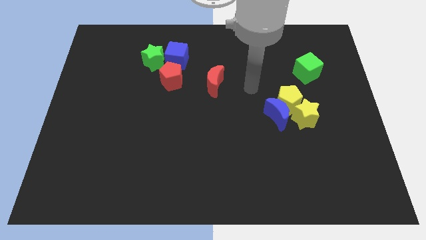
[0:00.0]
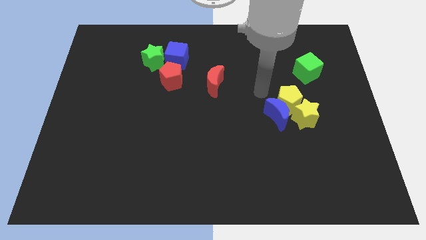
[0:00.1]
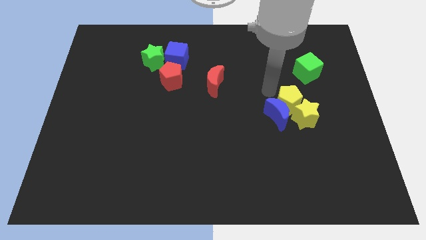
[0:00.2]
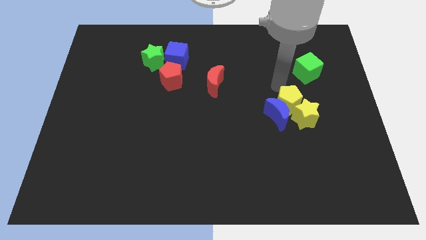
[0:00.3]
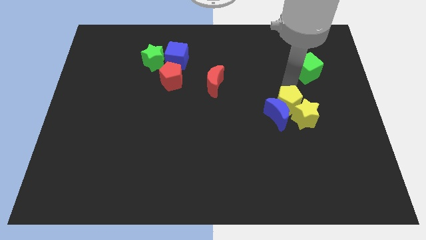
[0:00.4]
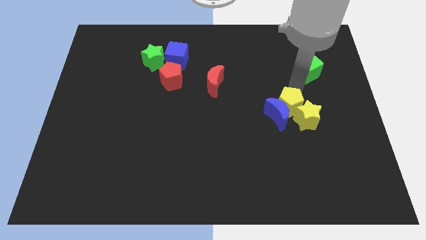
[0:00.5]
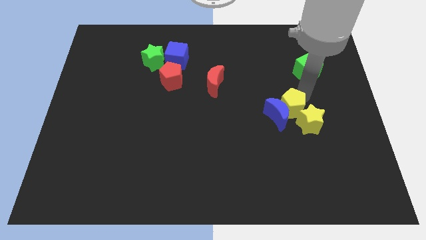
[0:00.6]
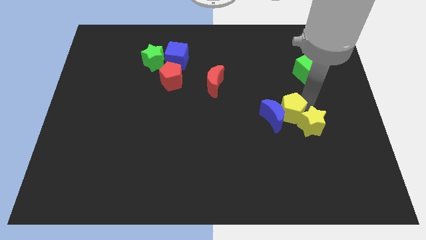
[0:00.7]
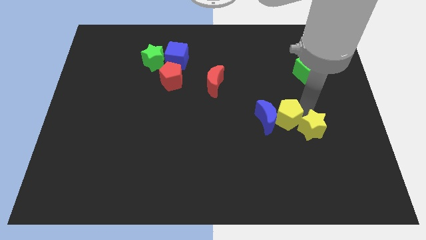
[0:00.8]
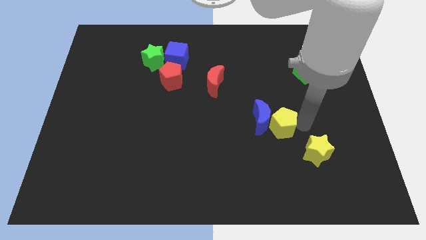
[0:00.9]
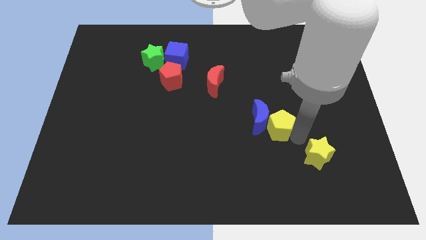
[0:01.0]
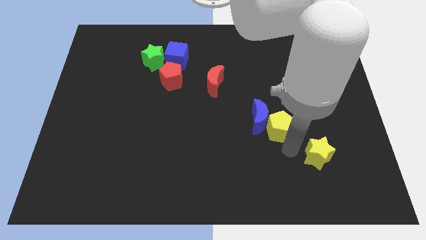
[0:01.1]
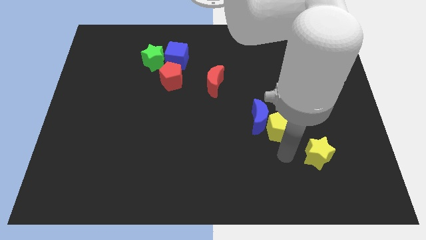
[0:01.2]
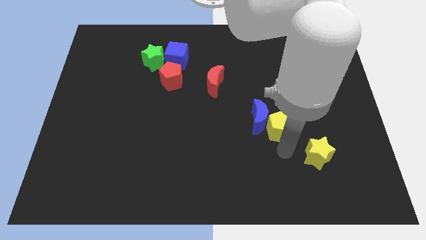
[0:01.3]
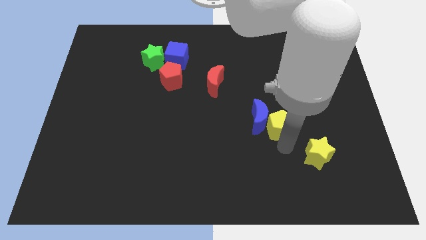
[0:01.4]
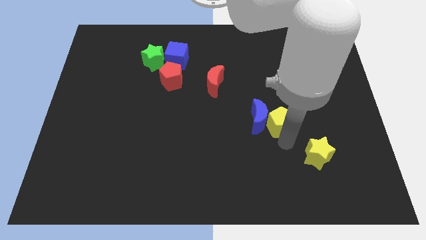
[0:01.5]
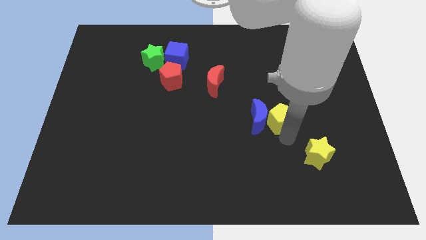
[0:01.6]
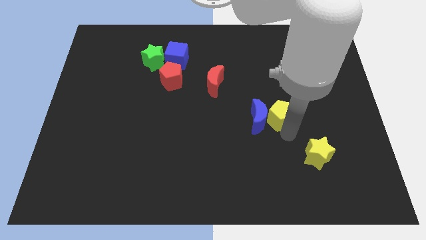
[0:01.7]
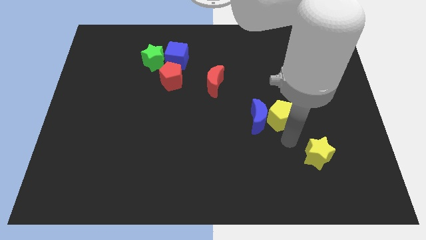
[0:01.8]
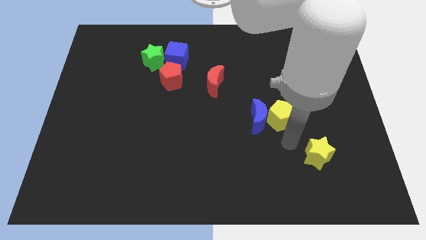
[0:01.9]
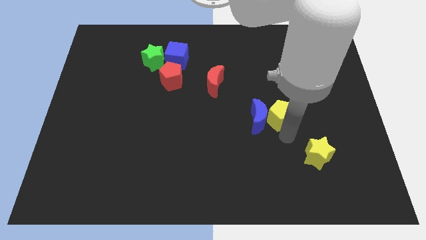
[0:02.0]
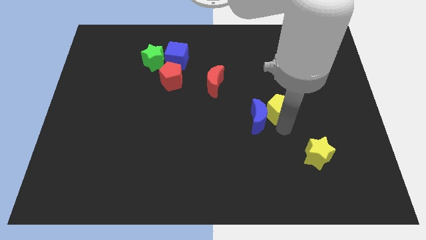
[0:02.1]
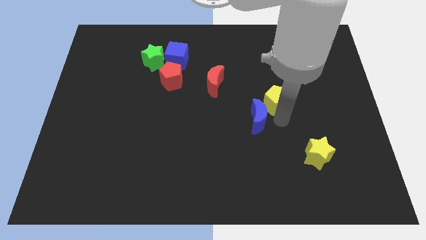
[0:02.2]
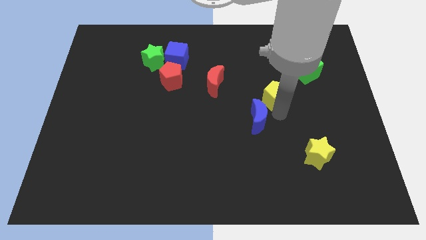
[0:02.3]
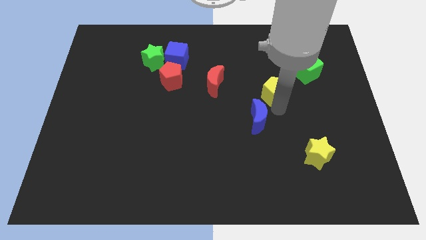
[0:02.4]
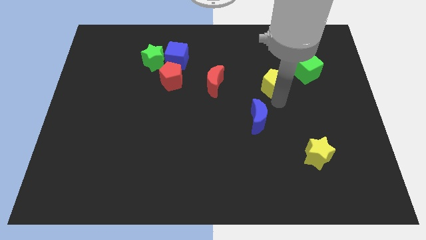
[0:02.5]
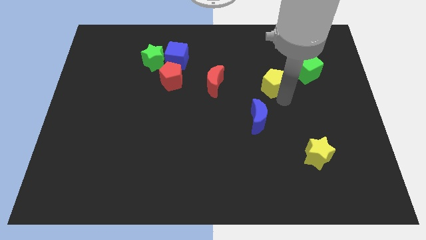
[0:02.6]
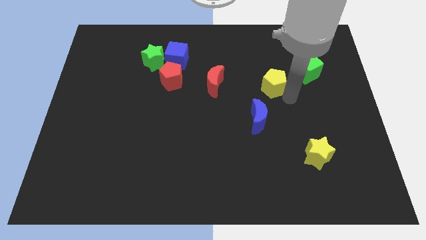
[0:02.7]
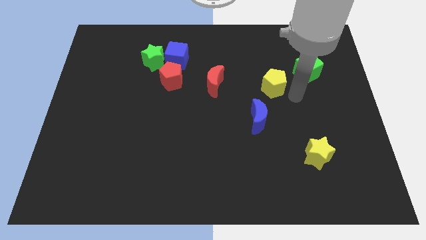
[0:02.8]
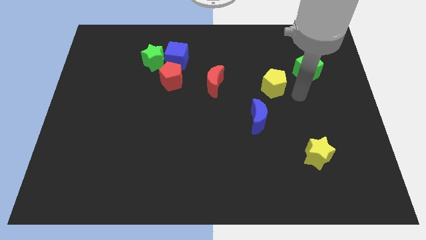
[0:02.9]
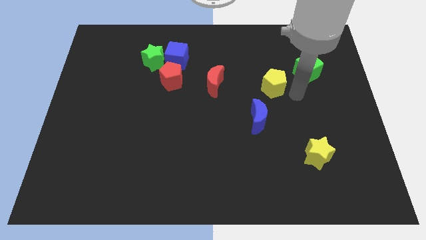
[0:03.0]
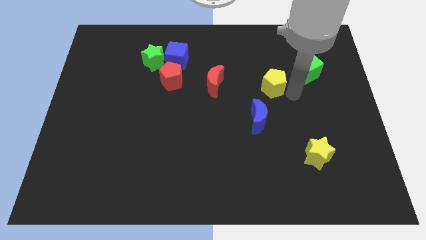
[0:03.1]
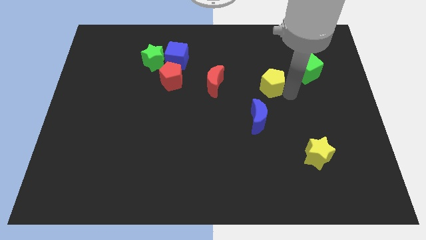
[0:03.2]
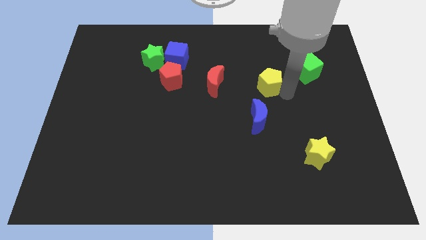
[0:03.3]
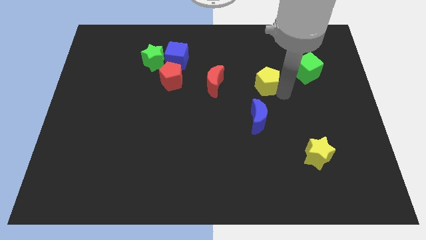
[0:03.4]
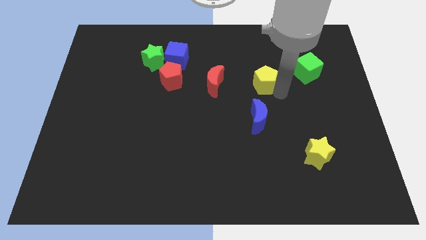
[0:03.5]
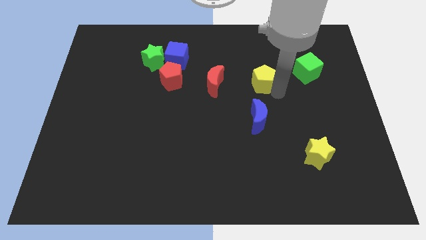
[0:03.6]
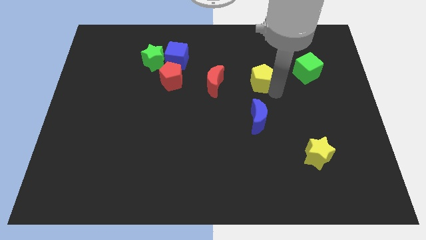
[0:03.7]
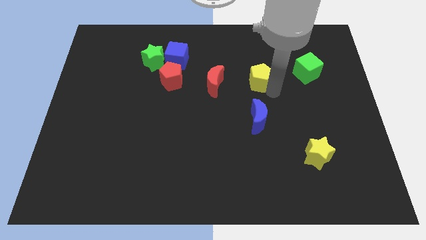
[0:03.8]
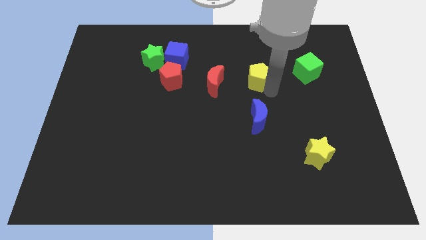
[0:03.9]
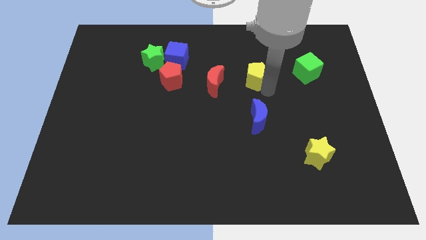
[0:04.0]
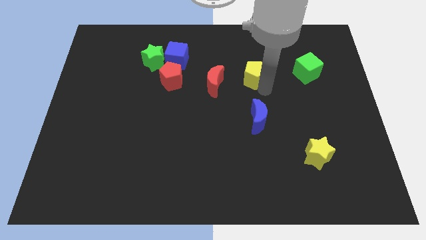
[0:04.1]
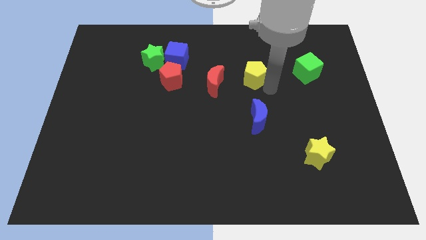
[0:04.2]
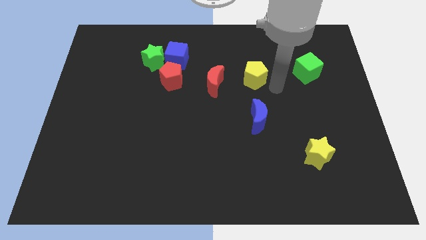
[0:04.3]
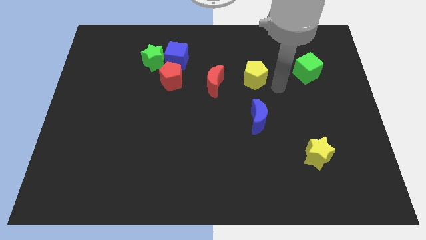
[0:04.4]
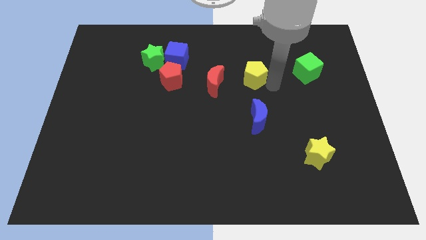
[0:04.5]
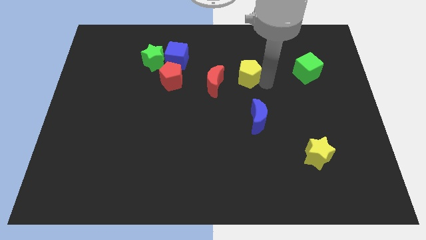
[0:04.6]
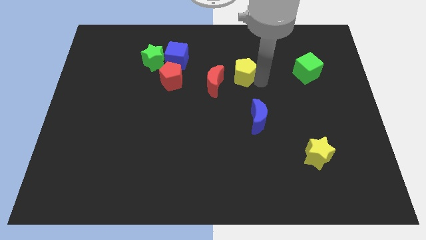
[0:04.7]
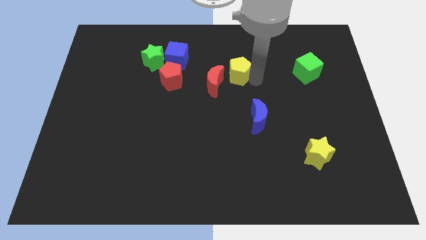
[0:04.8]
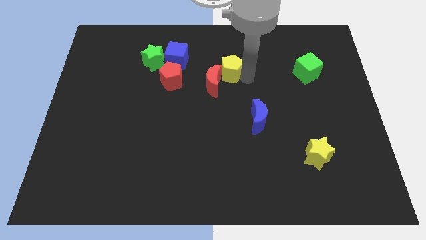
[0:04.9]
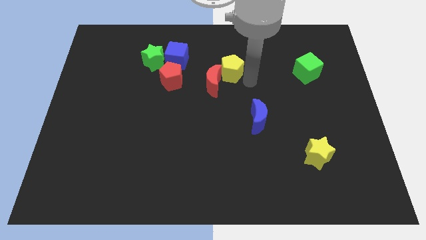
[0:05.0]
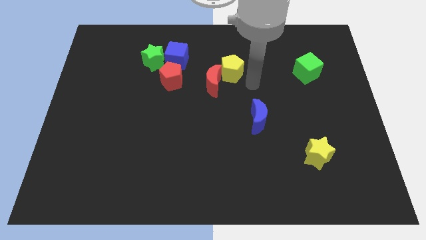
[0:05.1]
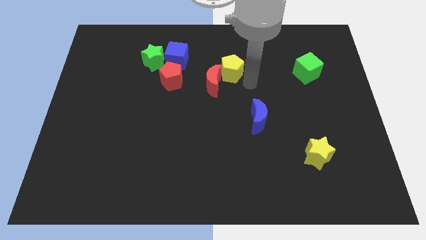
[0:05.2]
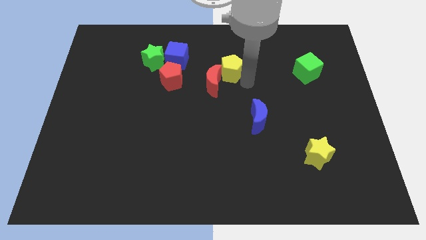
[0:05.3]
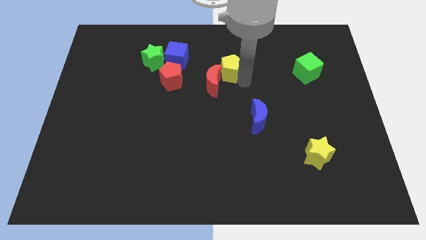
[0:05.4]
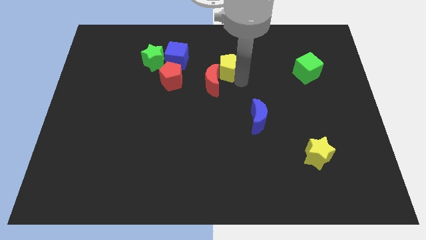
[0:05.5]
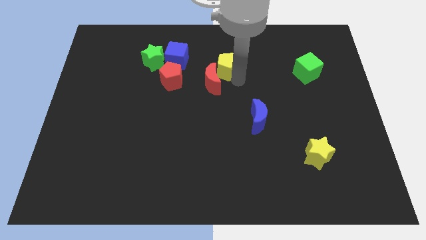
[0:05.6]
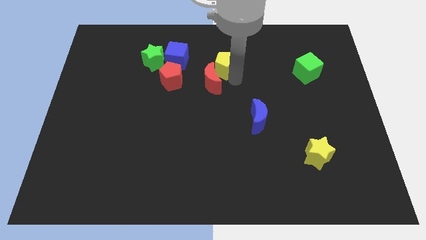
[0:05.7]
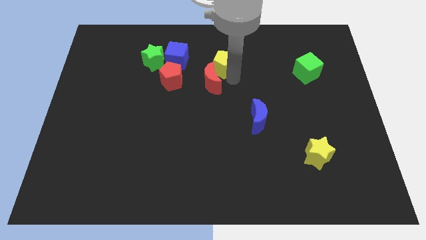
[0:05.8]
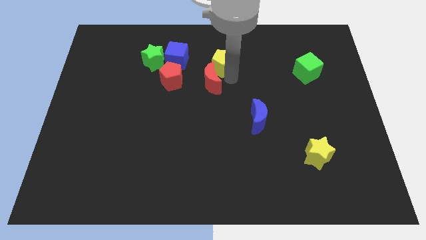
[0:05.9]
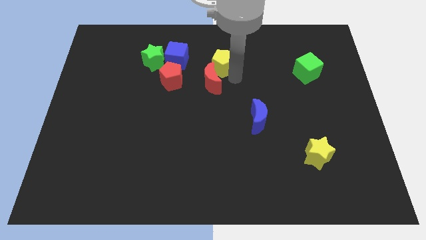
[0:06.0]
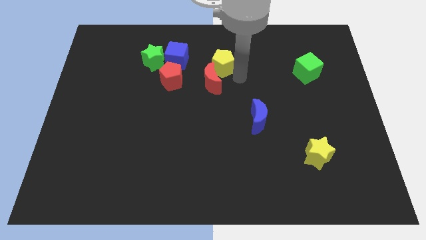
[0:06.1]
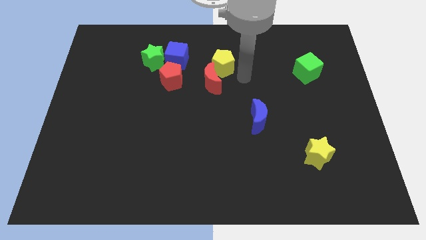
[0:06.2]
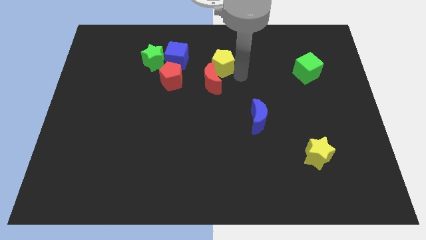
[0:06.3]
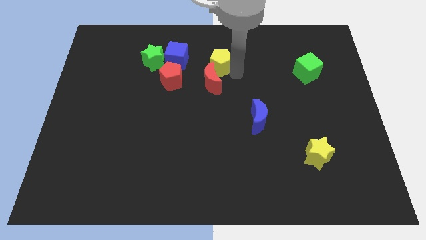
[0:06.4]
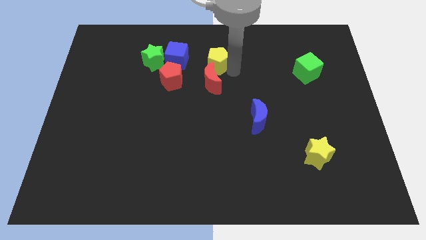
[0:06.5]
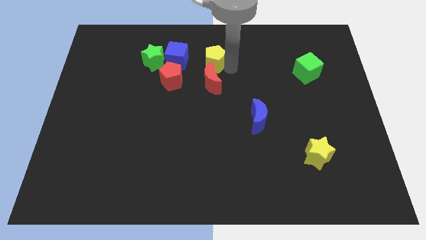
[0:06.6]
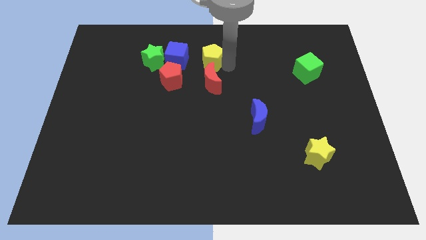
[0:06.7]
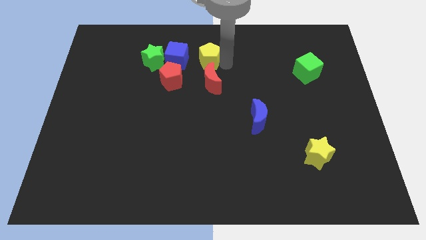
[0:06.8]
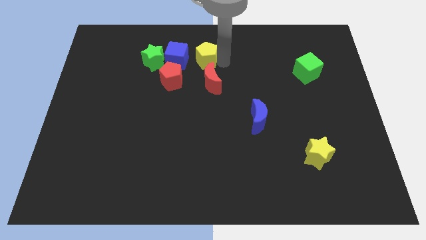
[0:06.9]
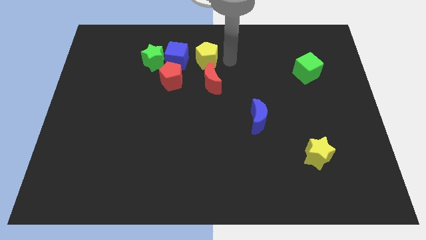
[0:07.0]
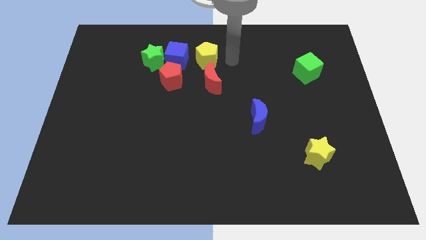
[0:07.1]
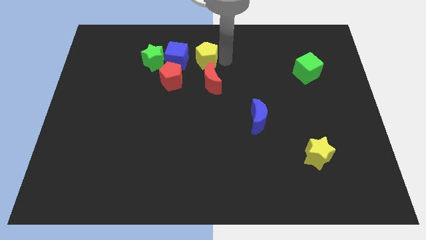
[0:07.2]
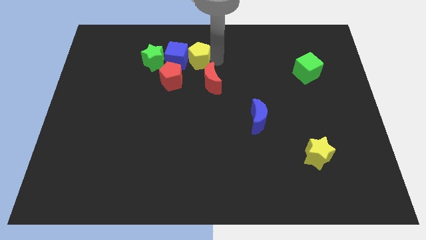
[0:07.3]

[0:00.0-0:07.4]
move the yellow pentagon to the blue cube
